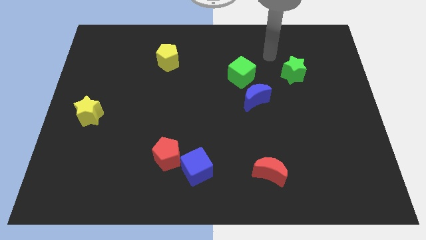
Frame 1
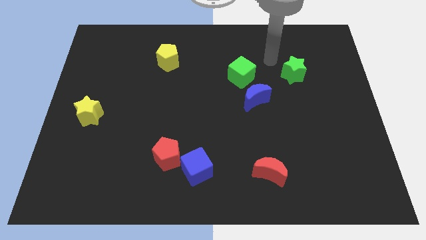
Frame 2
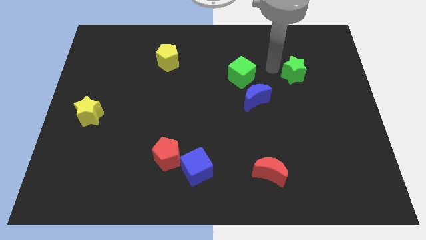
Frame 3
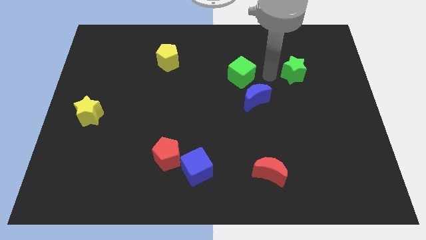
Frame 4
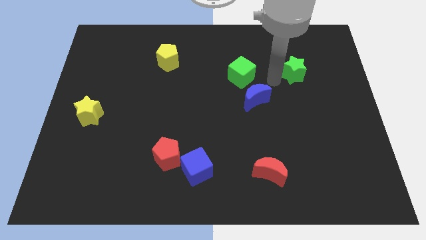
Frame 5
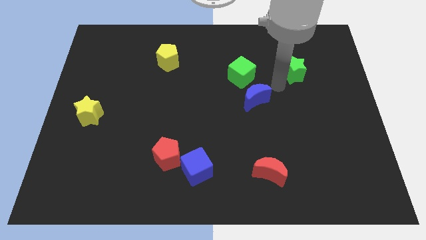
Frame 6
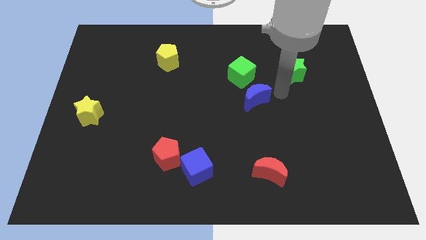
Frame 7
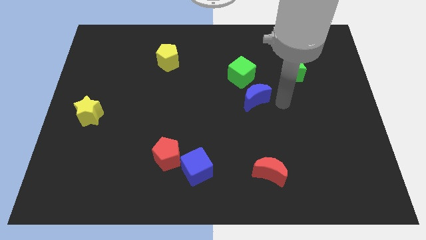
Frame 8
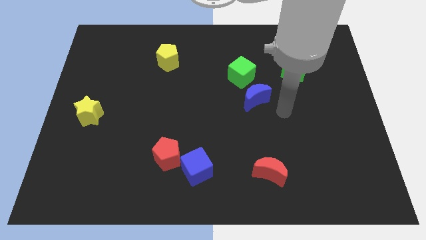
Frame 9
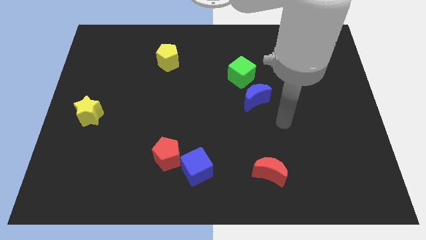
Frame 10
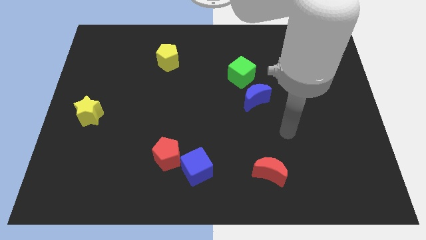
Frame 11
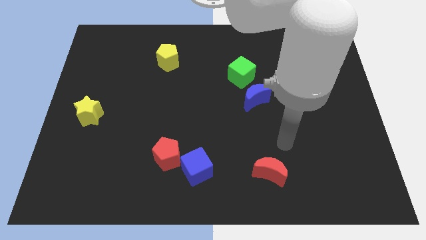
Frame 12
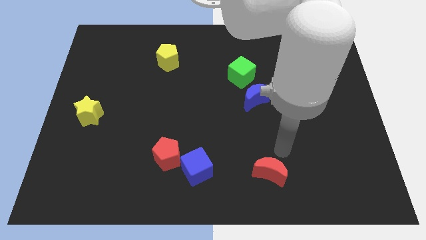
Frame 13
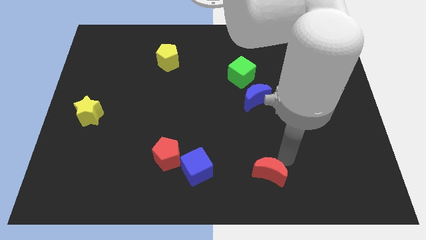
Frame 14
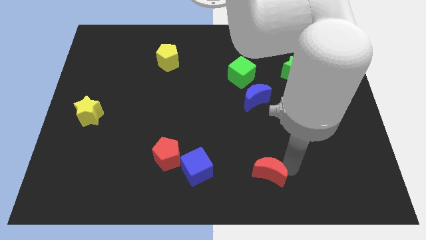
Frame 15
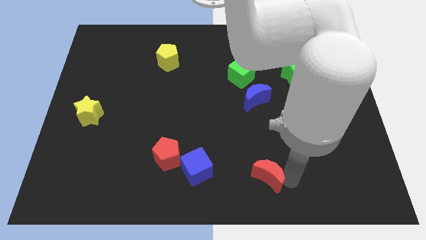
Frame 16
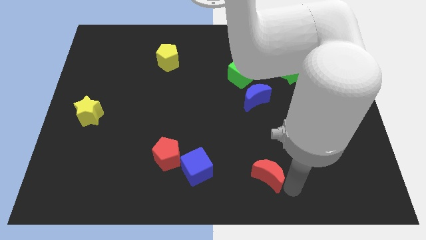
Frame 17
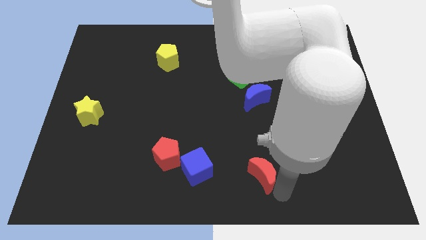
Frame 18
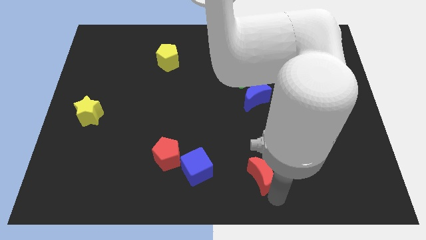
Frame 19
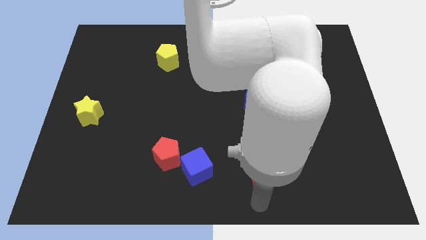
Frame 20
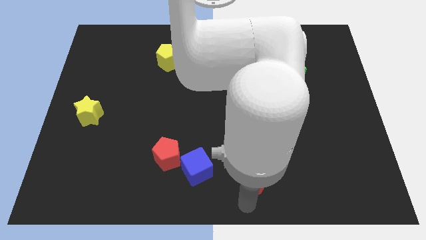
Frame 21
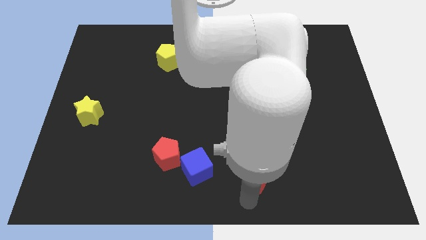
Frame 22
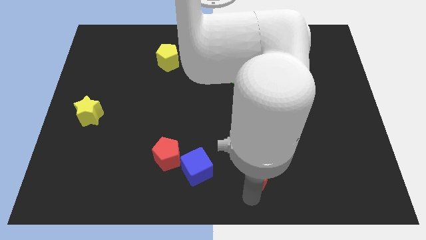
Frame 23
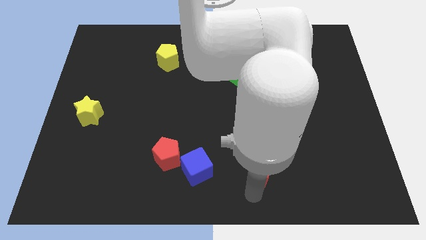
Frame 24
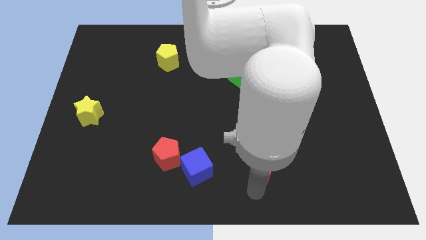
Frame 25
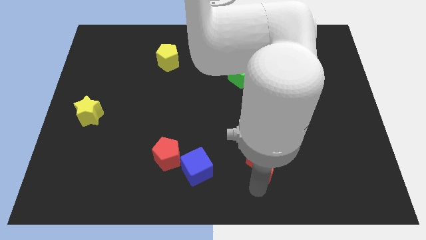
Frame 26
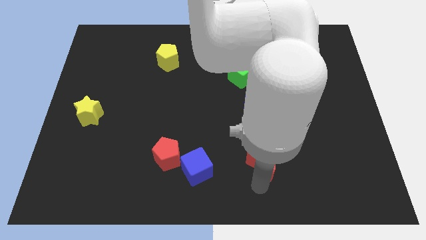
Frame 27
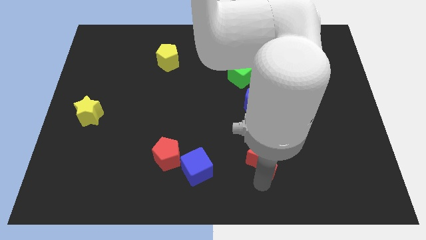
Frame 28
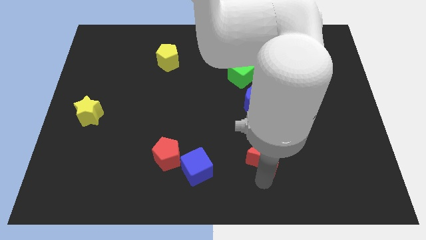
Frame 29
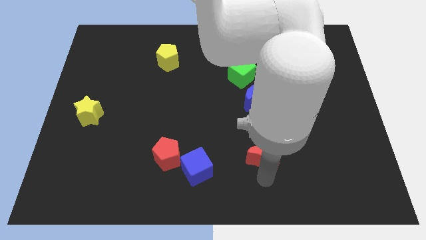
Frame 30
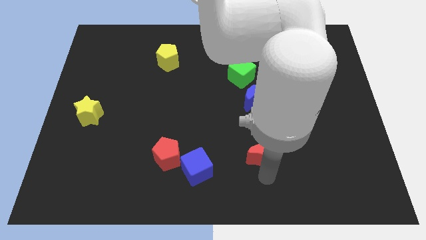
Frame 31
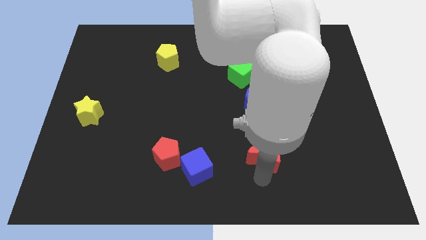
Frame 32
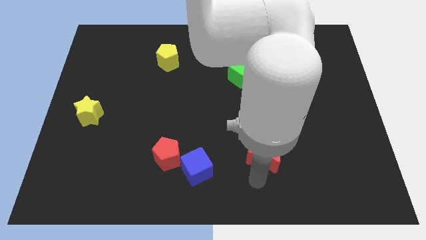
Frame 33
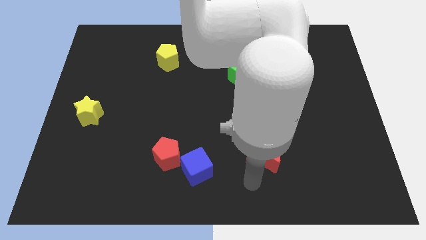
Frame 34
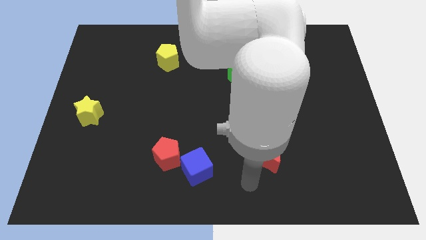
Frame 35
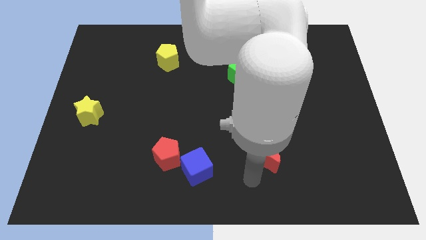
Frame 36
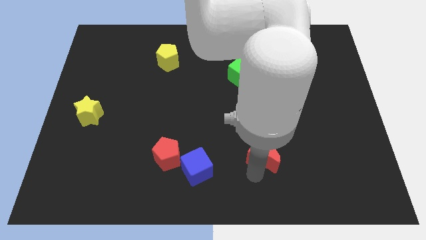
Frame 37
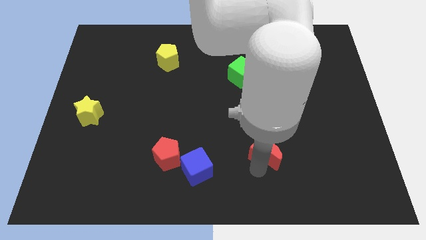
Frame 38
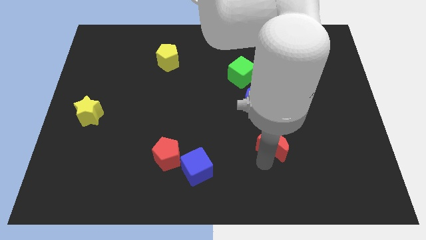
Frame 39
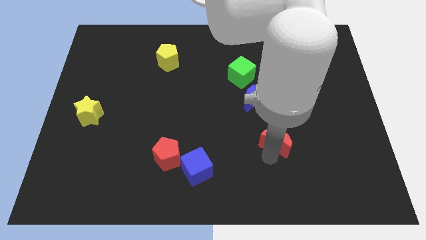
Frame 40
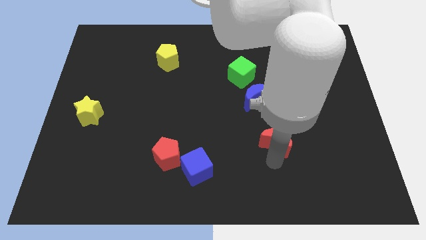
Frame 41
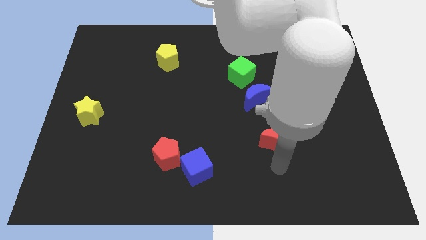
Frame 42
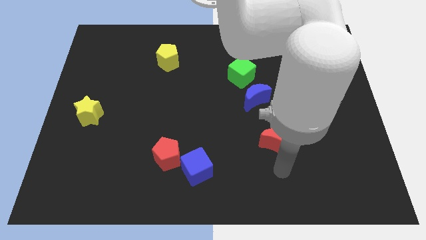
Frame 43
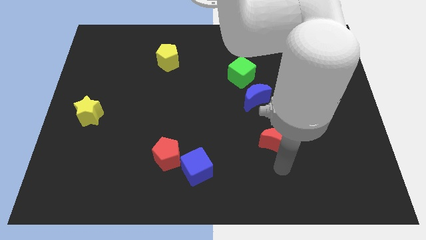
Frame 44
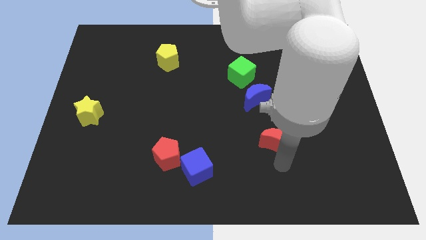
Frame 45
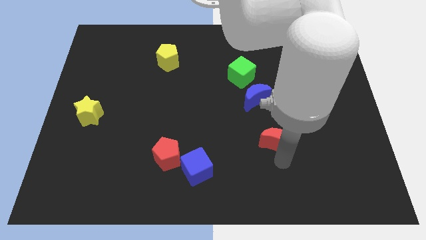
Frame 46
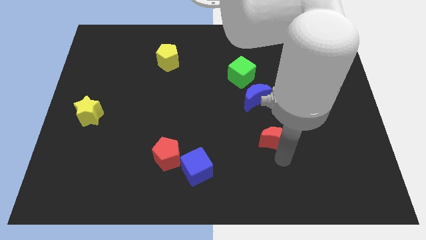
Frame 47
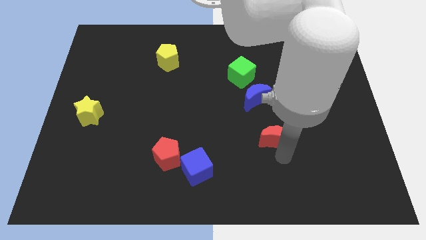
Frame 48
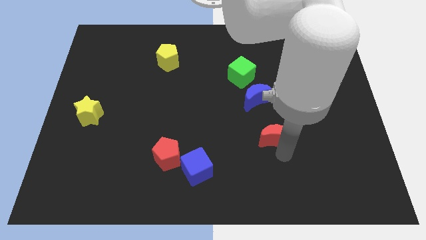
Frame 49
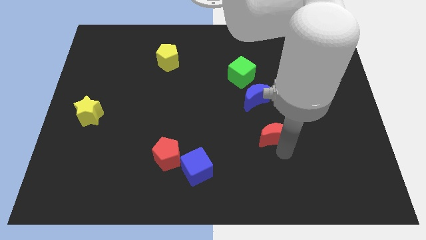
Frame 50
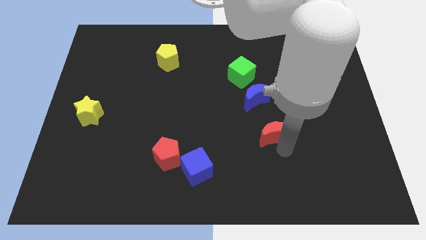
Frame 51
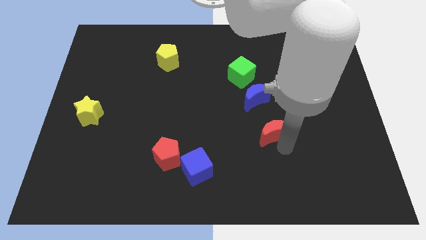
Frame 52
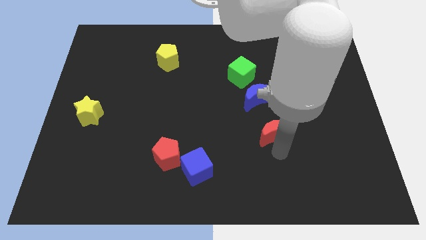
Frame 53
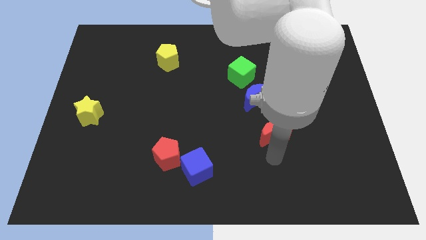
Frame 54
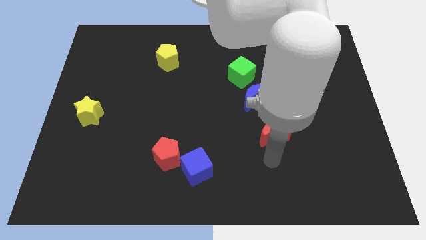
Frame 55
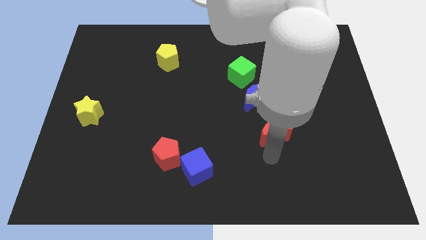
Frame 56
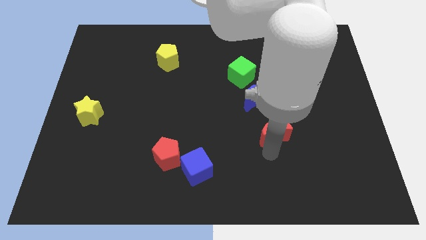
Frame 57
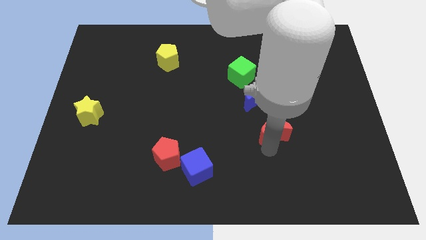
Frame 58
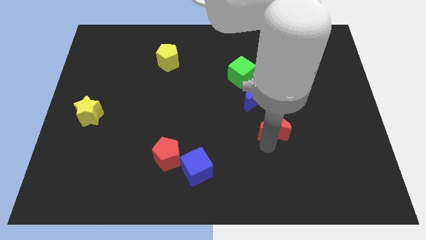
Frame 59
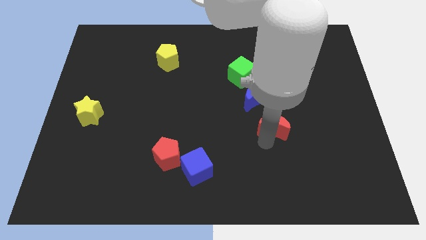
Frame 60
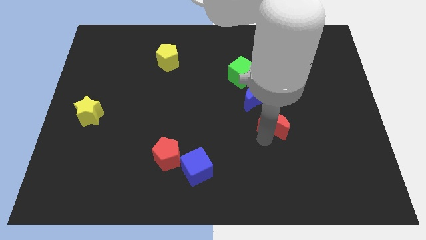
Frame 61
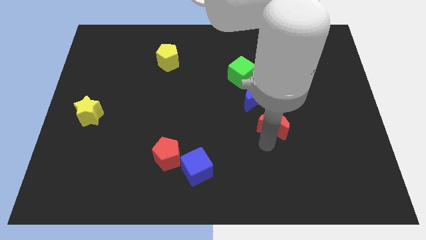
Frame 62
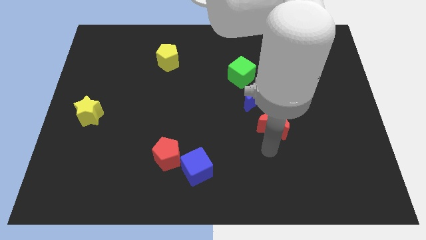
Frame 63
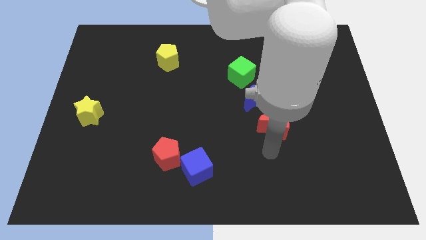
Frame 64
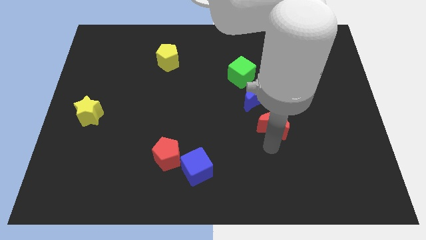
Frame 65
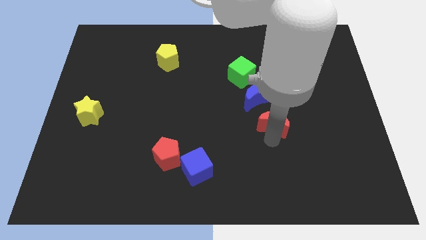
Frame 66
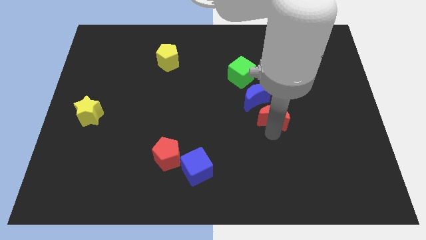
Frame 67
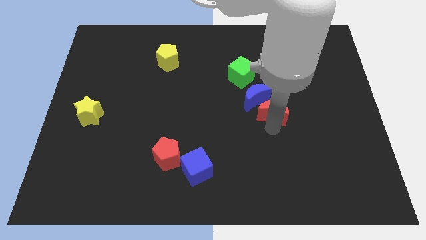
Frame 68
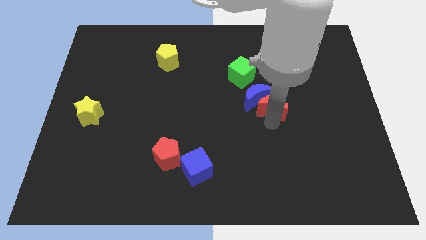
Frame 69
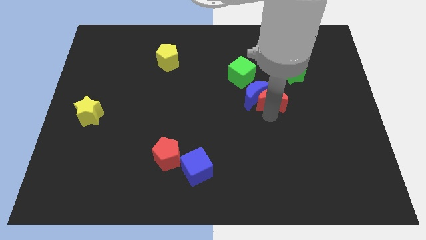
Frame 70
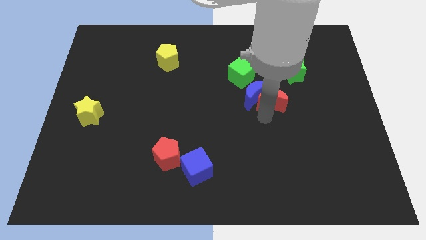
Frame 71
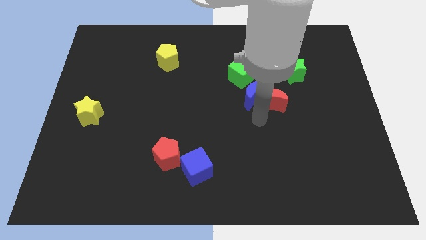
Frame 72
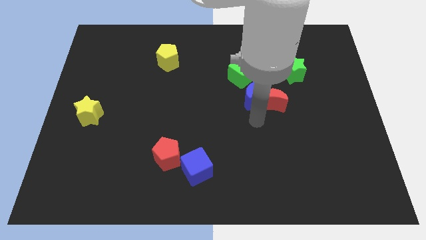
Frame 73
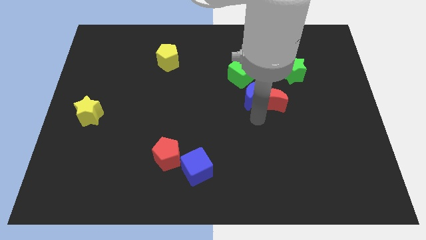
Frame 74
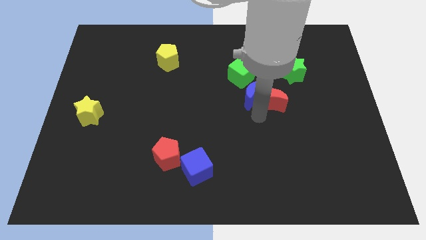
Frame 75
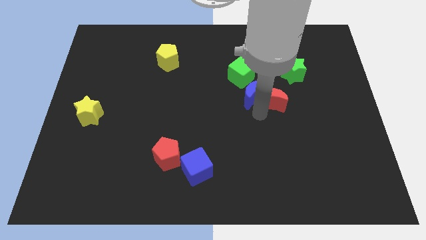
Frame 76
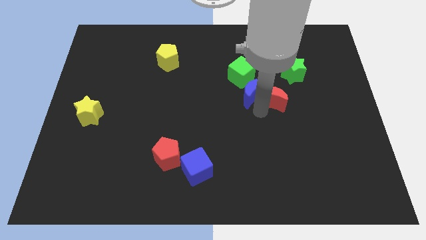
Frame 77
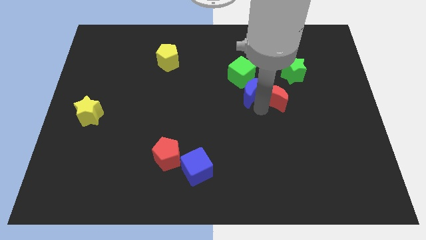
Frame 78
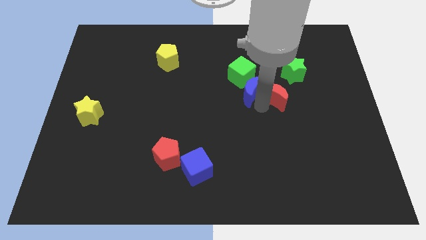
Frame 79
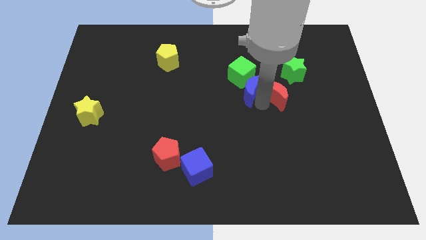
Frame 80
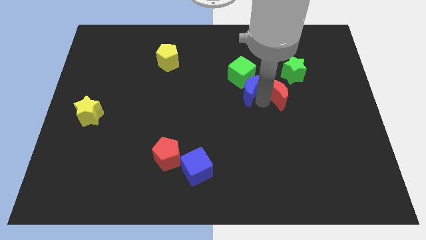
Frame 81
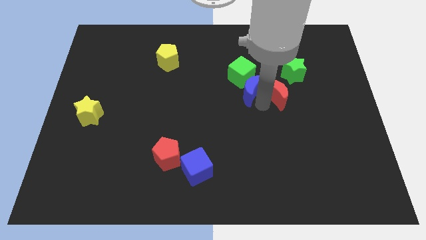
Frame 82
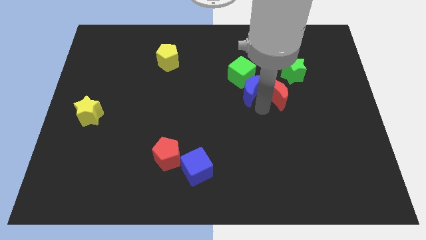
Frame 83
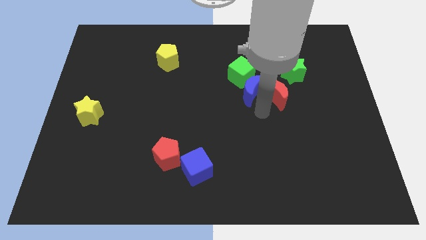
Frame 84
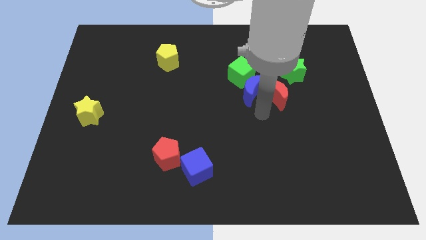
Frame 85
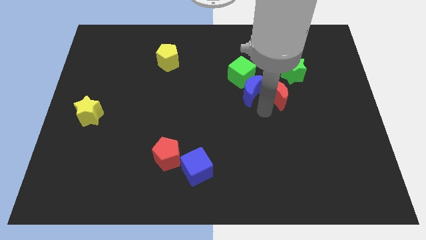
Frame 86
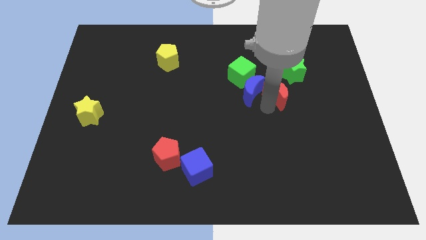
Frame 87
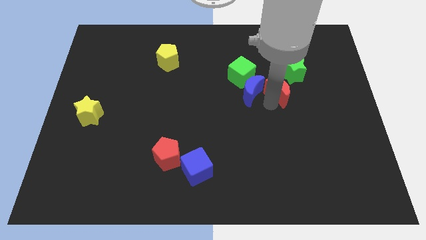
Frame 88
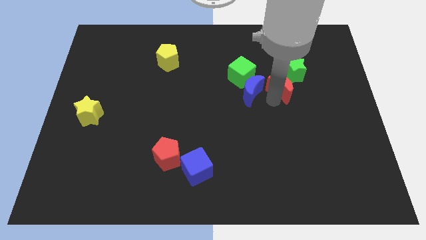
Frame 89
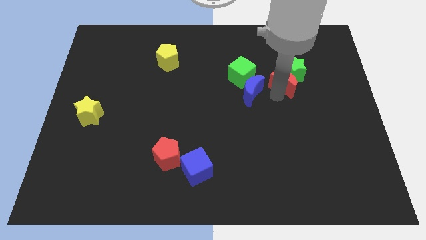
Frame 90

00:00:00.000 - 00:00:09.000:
put the red moon close to the green star
